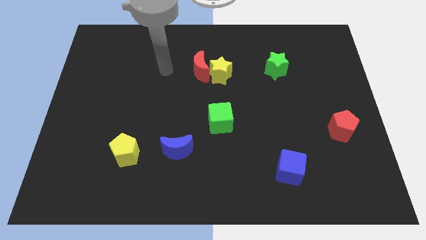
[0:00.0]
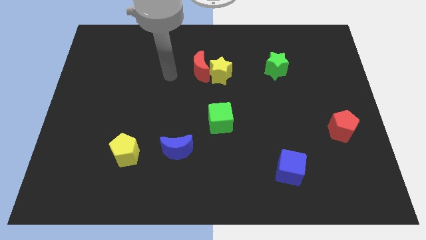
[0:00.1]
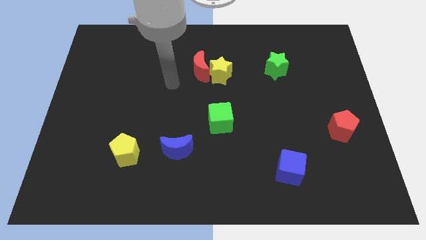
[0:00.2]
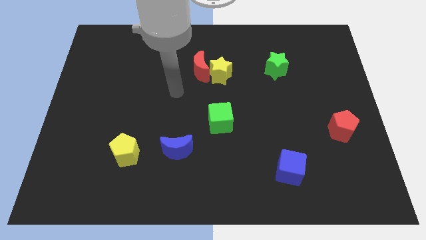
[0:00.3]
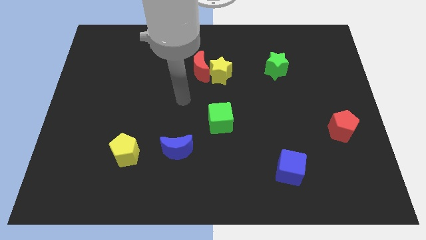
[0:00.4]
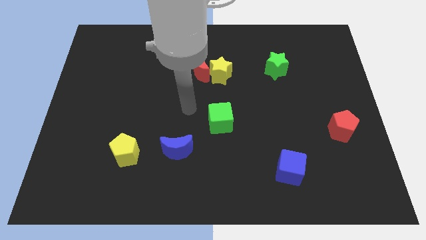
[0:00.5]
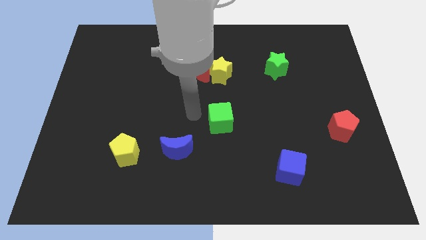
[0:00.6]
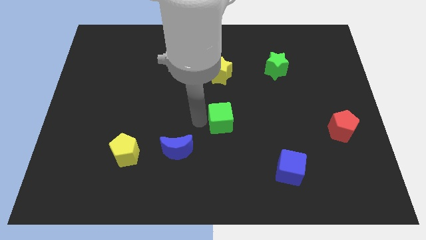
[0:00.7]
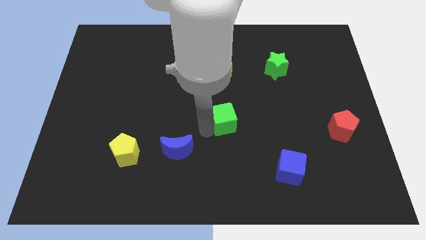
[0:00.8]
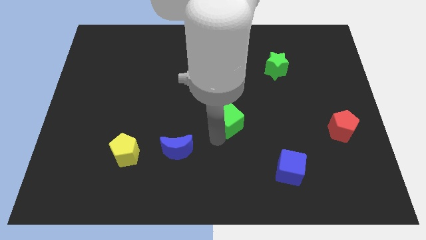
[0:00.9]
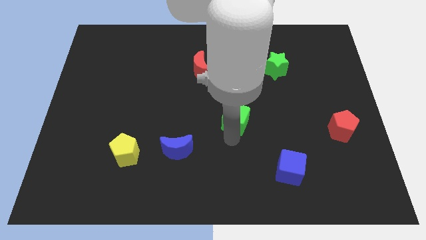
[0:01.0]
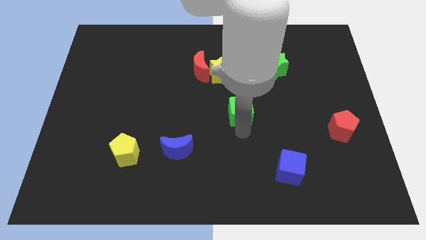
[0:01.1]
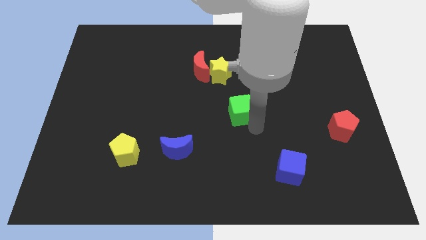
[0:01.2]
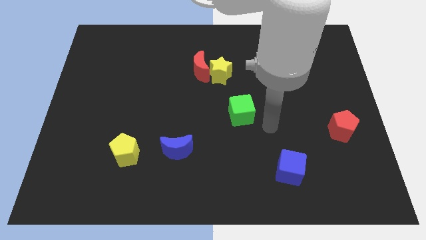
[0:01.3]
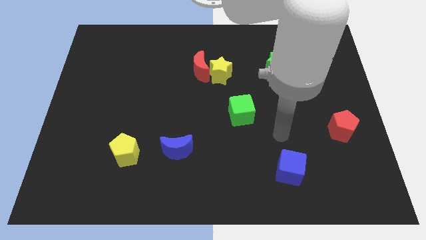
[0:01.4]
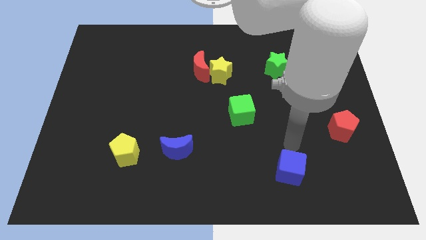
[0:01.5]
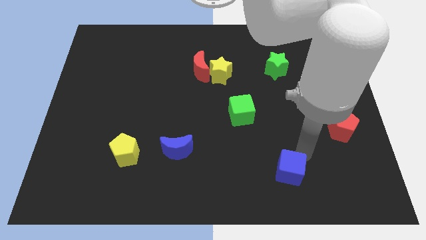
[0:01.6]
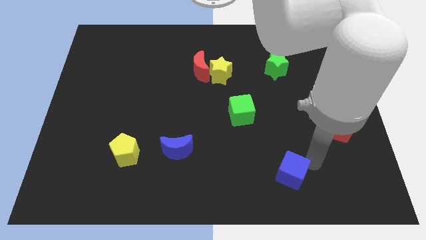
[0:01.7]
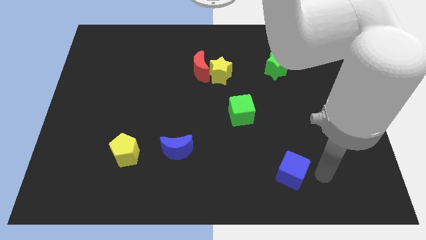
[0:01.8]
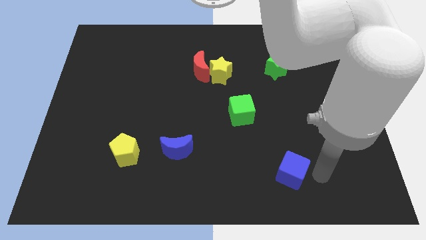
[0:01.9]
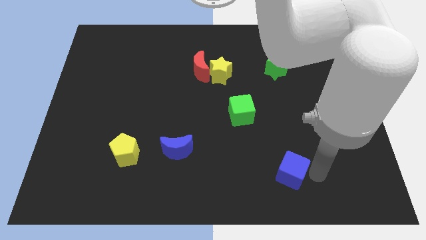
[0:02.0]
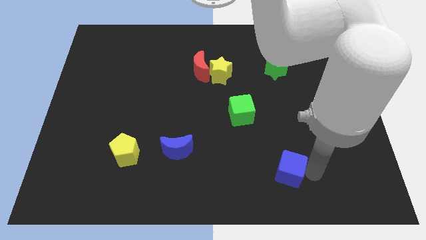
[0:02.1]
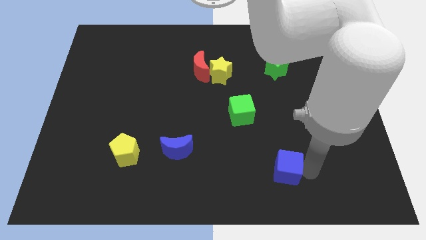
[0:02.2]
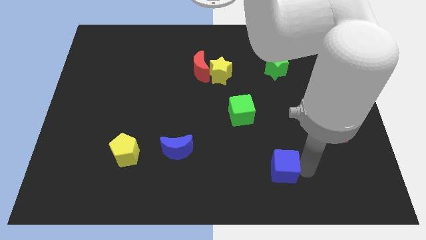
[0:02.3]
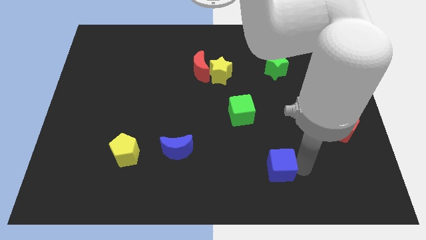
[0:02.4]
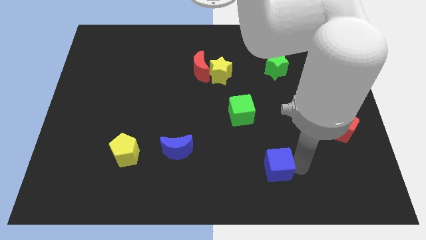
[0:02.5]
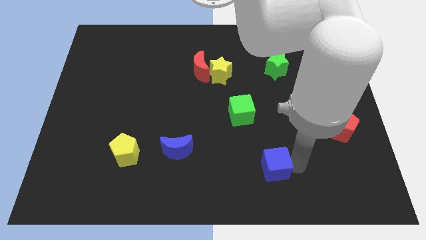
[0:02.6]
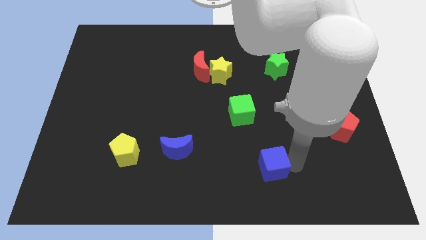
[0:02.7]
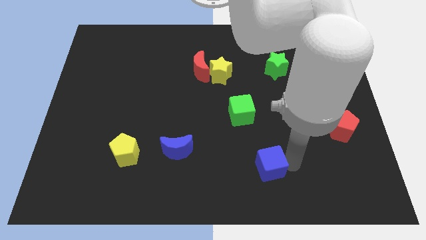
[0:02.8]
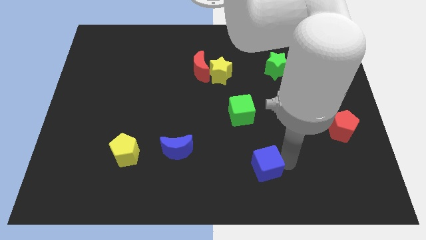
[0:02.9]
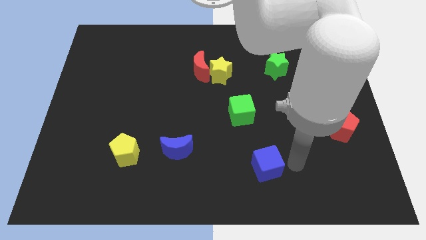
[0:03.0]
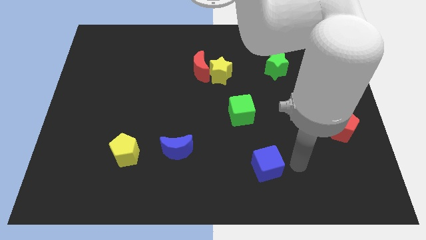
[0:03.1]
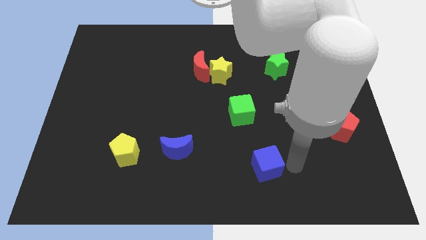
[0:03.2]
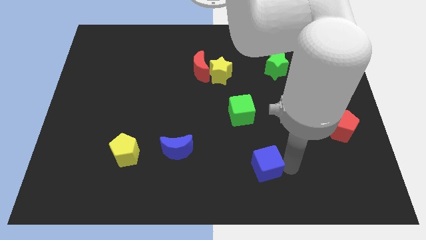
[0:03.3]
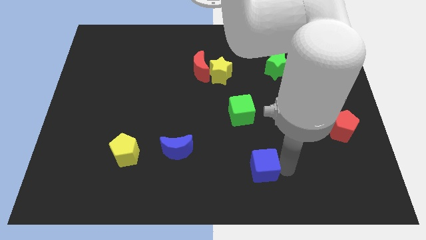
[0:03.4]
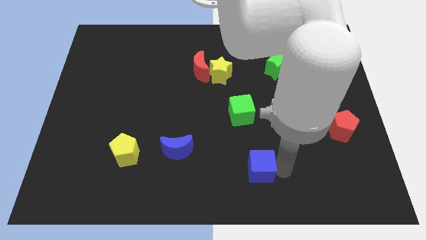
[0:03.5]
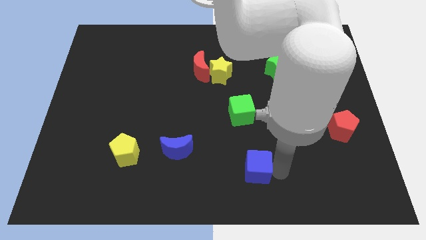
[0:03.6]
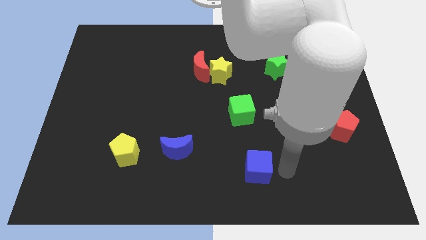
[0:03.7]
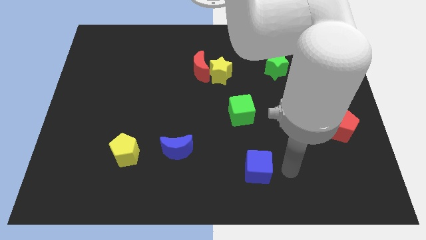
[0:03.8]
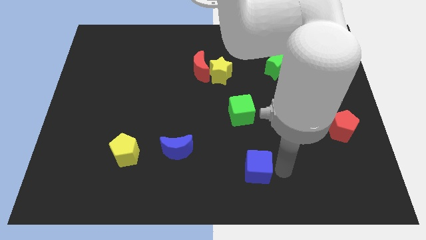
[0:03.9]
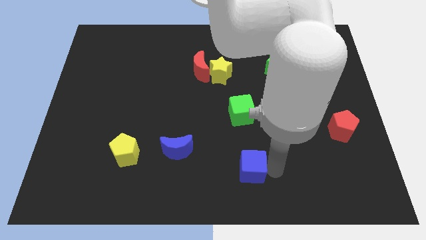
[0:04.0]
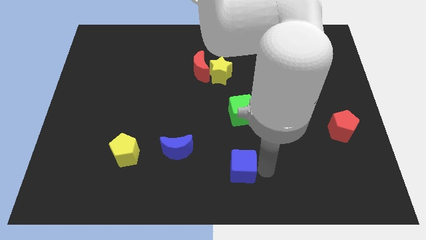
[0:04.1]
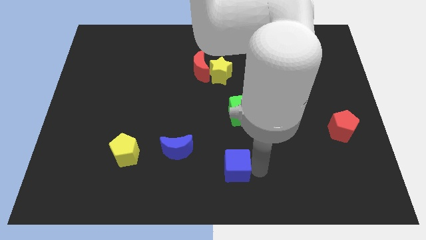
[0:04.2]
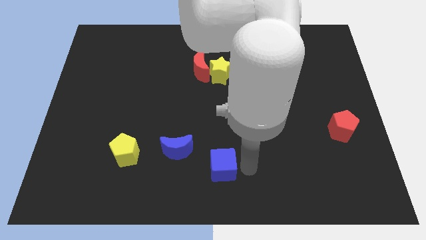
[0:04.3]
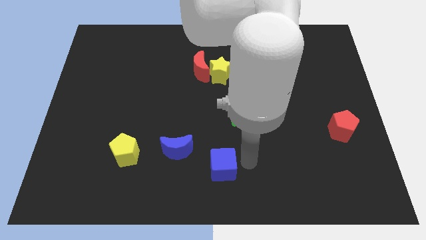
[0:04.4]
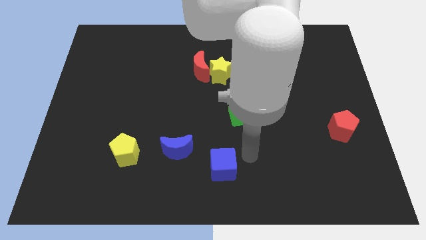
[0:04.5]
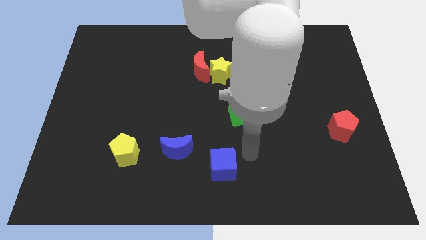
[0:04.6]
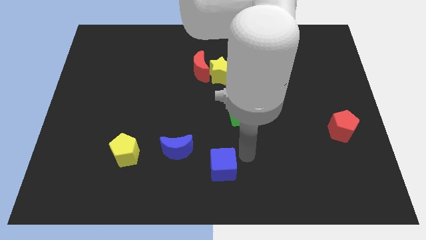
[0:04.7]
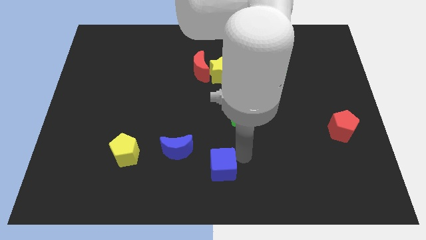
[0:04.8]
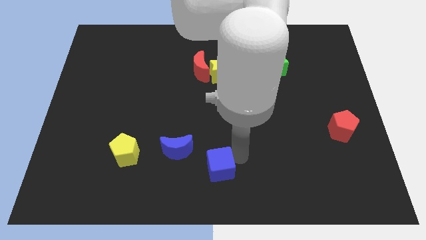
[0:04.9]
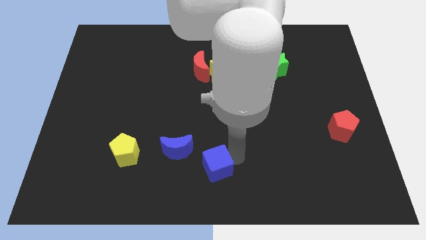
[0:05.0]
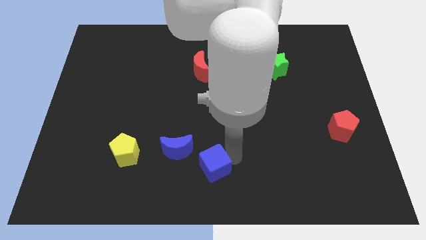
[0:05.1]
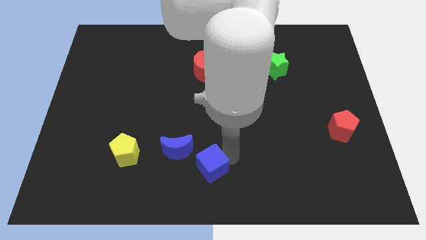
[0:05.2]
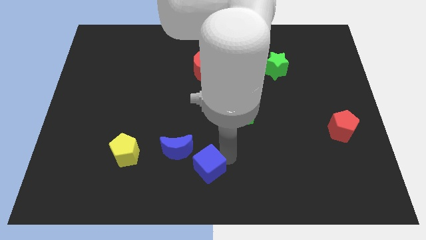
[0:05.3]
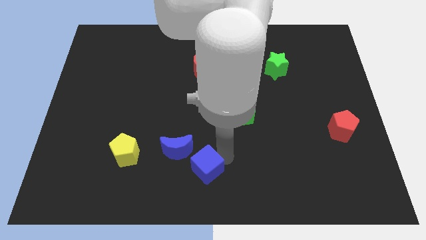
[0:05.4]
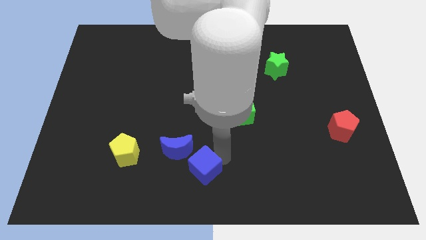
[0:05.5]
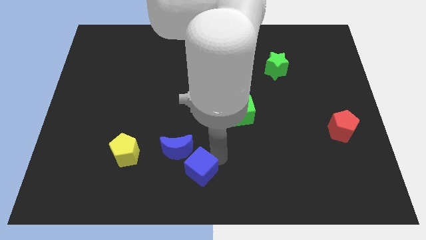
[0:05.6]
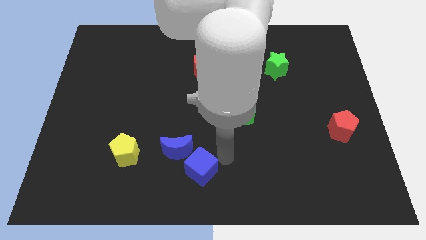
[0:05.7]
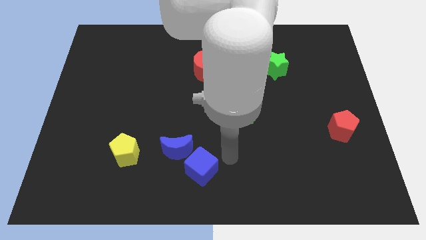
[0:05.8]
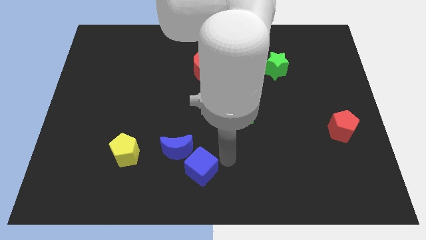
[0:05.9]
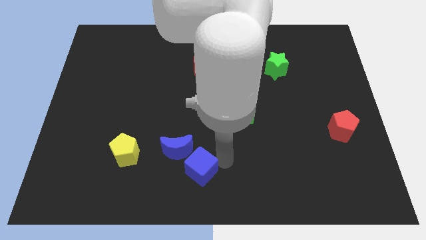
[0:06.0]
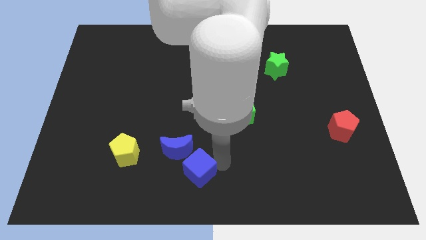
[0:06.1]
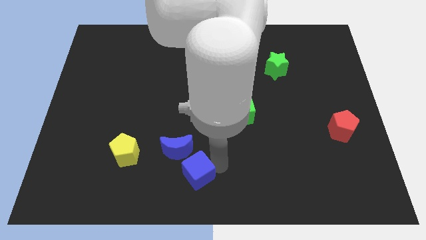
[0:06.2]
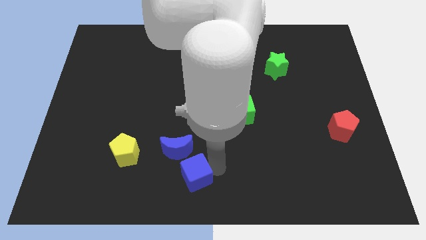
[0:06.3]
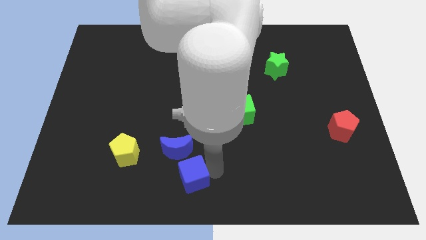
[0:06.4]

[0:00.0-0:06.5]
move the blue cube to the left

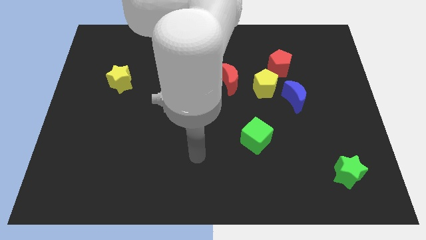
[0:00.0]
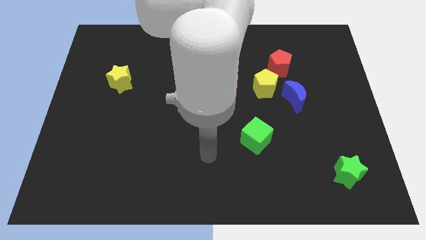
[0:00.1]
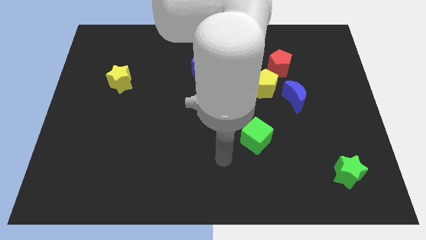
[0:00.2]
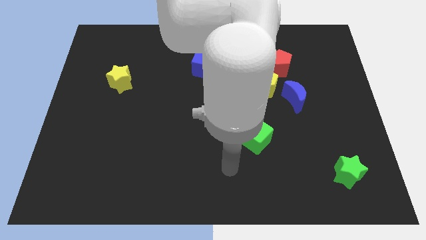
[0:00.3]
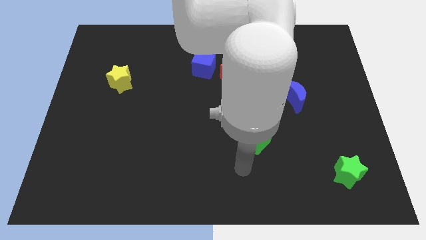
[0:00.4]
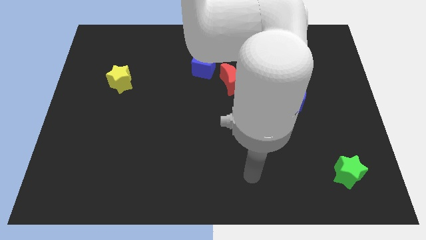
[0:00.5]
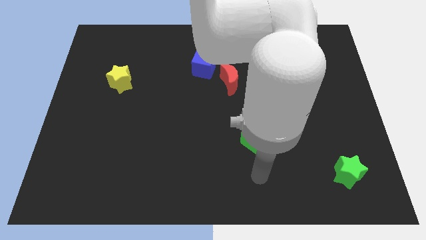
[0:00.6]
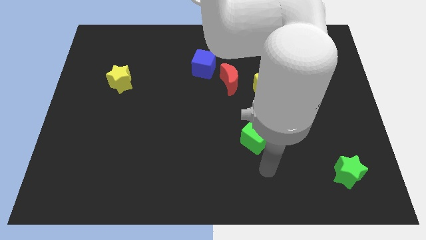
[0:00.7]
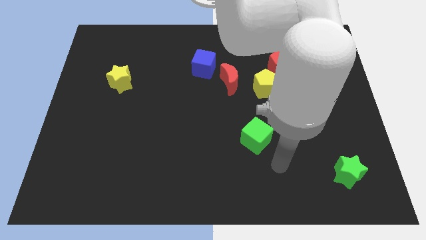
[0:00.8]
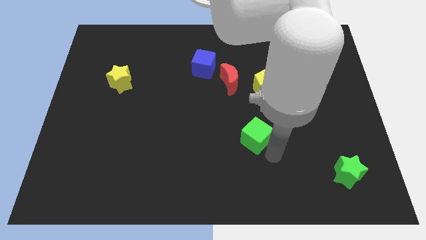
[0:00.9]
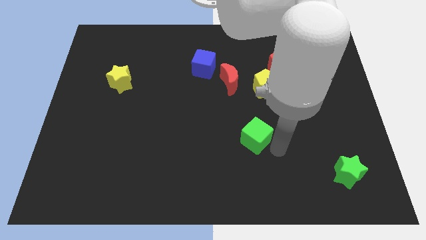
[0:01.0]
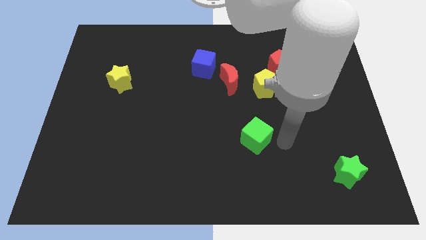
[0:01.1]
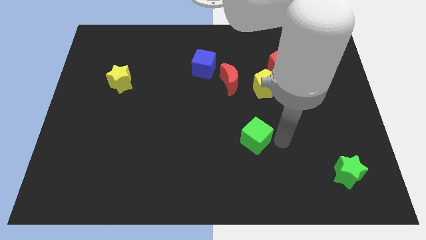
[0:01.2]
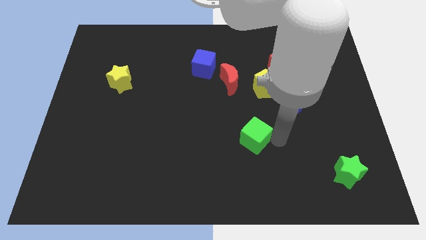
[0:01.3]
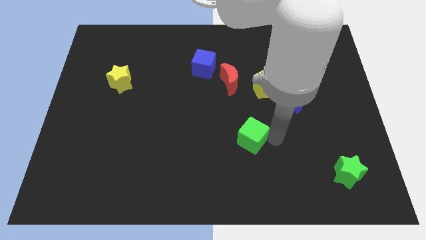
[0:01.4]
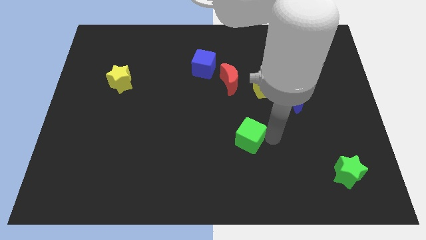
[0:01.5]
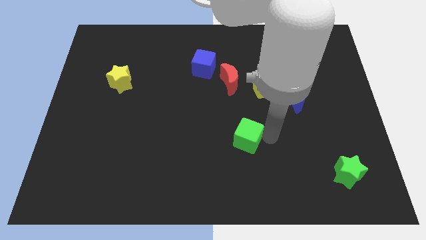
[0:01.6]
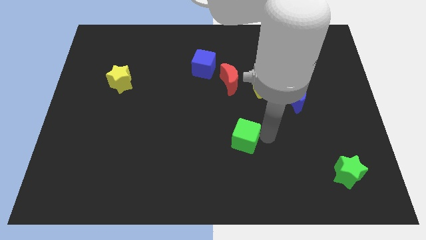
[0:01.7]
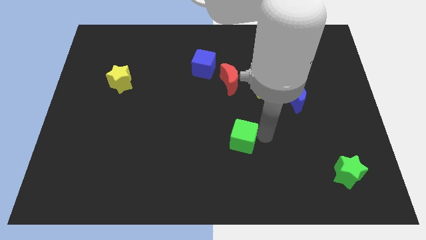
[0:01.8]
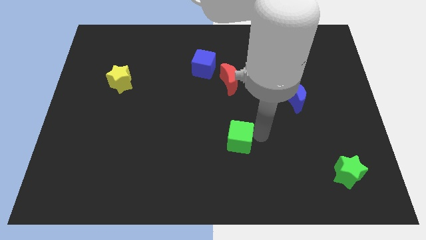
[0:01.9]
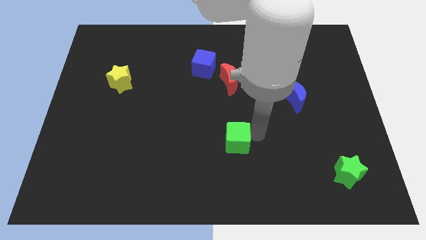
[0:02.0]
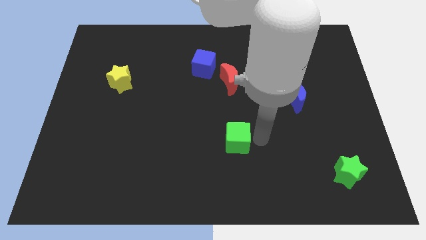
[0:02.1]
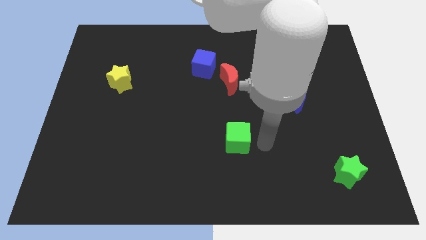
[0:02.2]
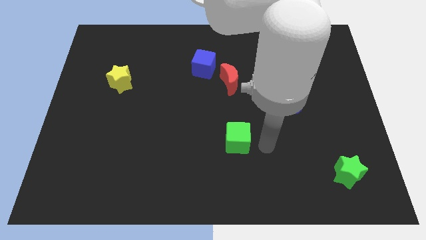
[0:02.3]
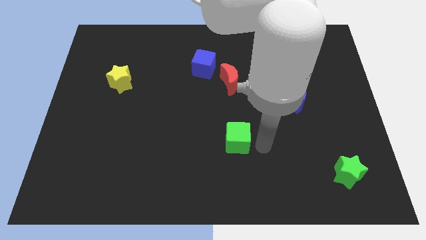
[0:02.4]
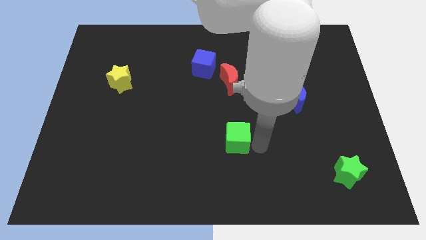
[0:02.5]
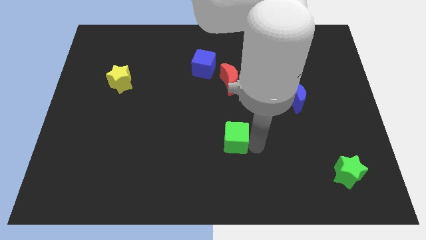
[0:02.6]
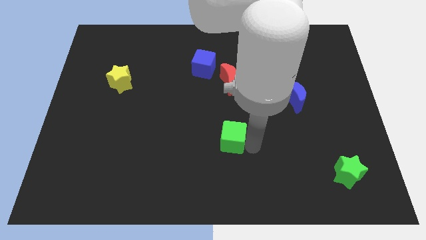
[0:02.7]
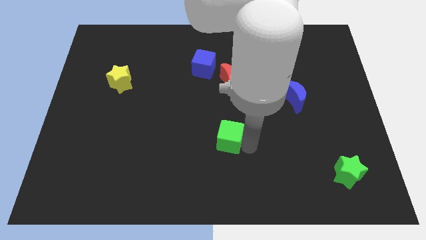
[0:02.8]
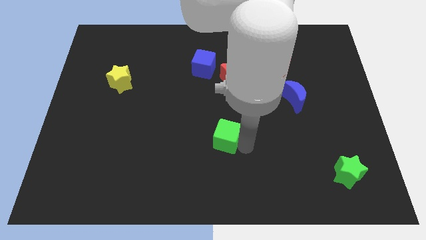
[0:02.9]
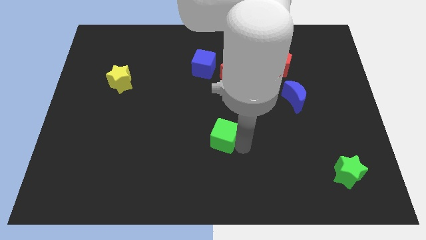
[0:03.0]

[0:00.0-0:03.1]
move the green cube a little bit left
